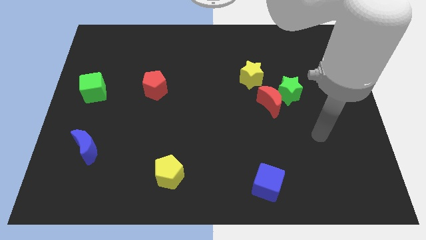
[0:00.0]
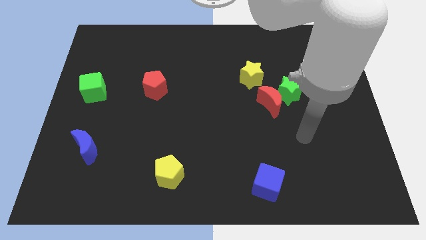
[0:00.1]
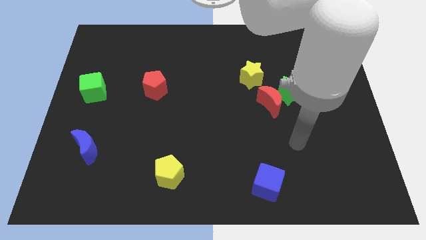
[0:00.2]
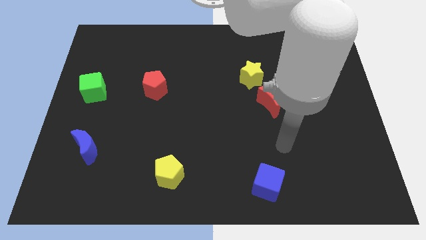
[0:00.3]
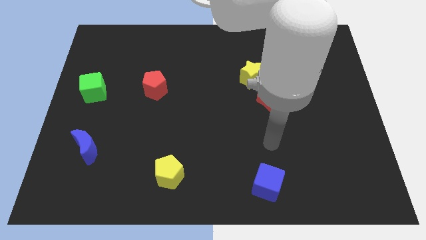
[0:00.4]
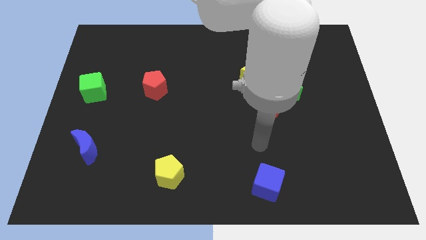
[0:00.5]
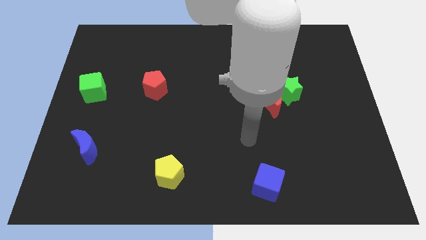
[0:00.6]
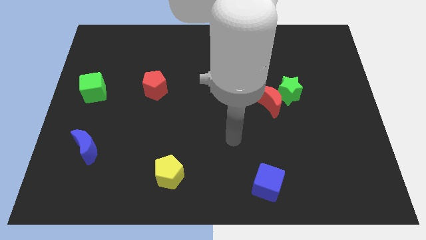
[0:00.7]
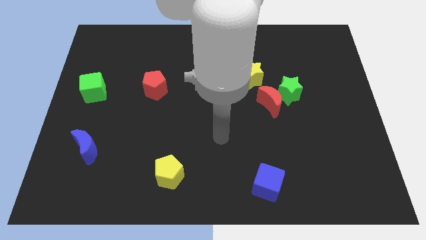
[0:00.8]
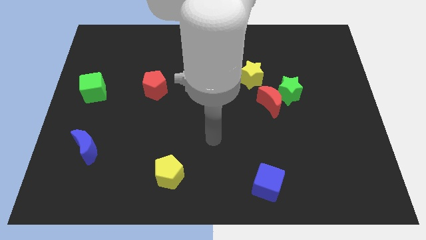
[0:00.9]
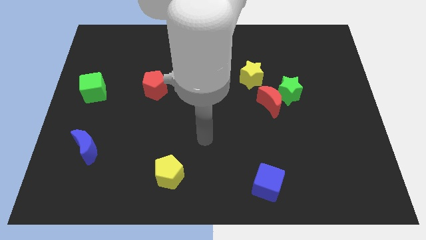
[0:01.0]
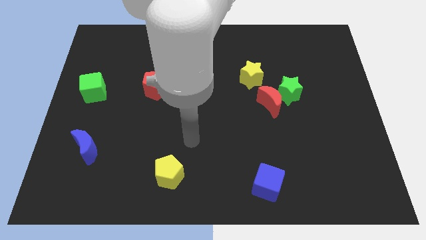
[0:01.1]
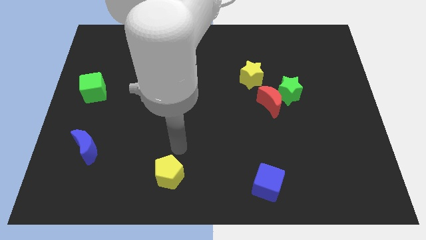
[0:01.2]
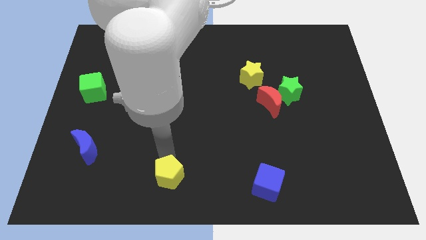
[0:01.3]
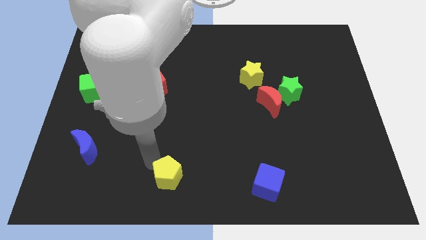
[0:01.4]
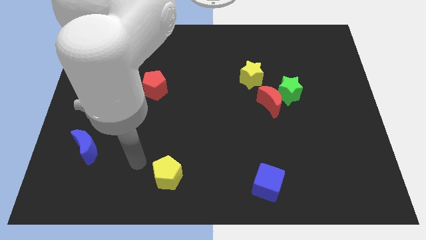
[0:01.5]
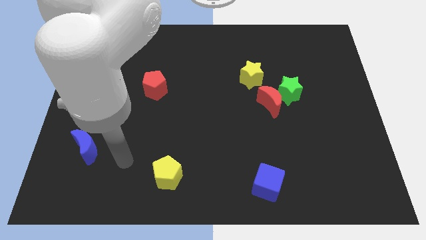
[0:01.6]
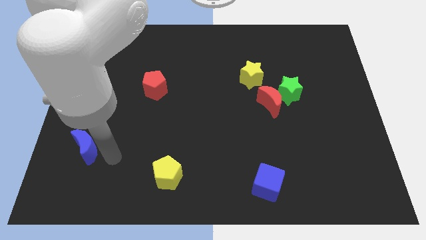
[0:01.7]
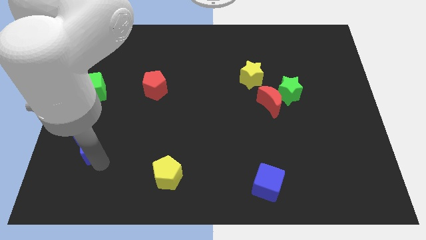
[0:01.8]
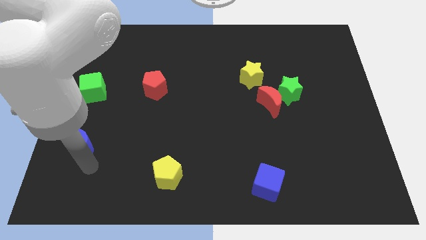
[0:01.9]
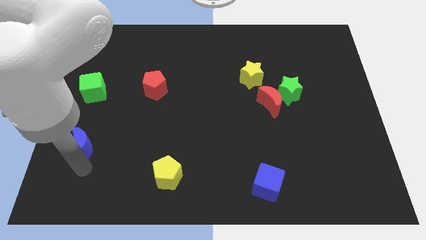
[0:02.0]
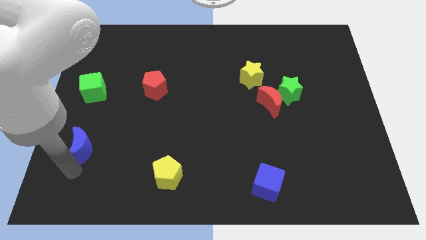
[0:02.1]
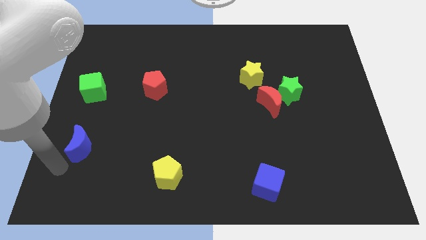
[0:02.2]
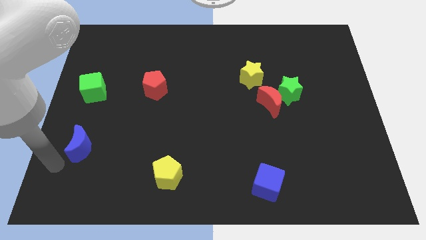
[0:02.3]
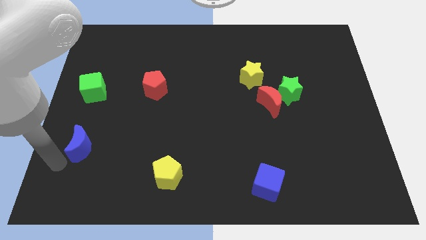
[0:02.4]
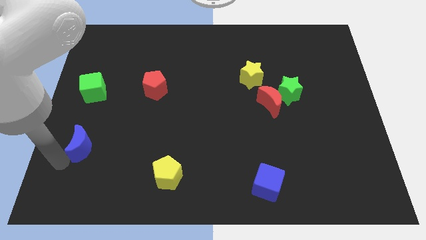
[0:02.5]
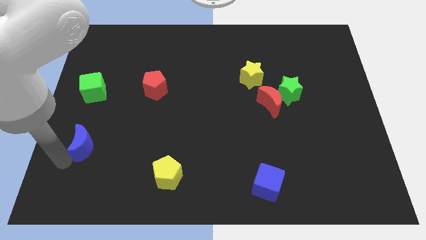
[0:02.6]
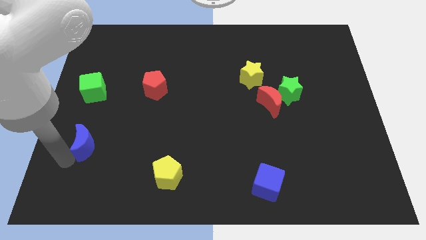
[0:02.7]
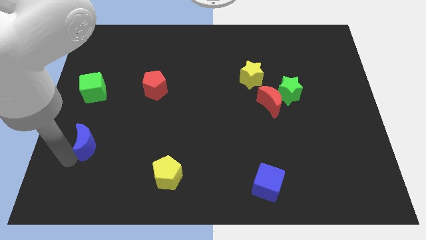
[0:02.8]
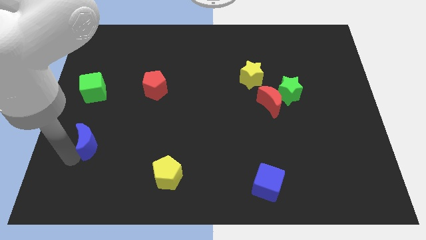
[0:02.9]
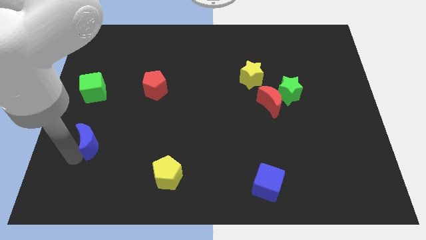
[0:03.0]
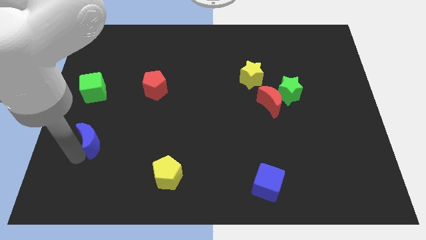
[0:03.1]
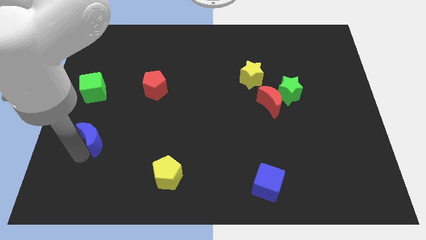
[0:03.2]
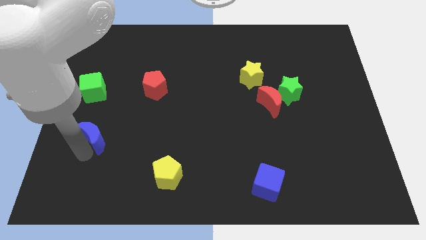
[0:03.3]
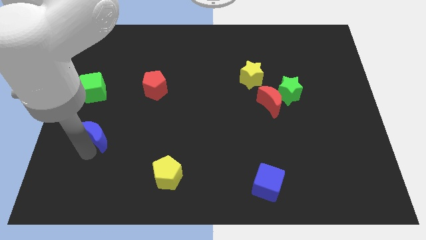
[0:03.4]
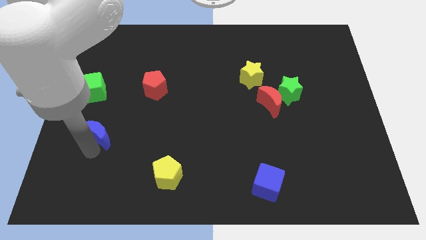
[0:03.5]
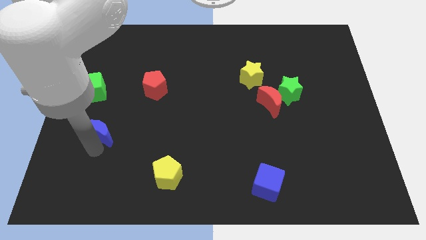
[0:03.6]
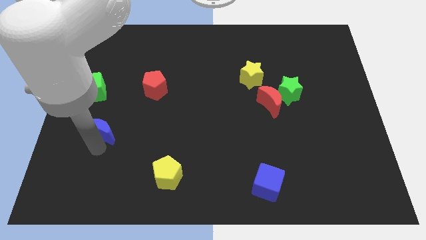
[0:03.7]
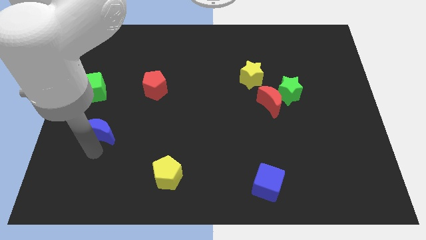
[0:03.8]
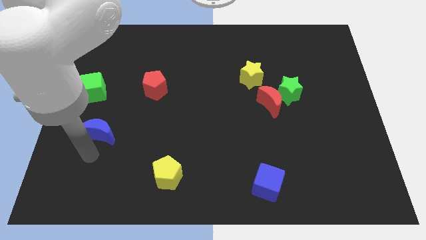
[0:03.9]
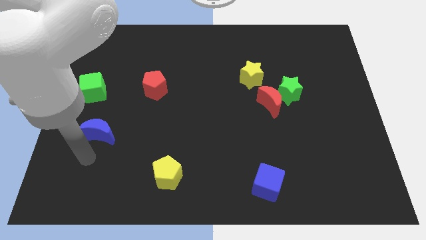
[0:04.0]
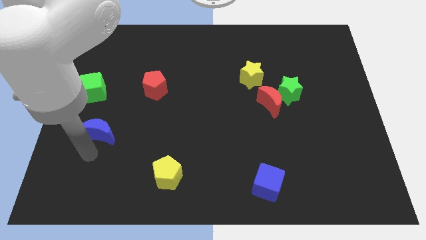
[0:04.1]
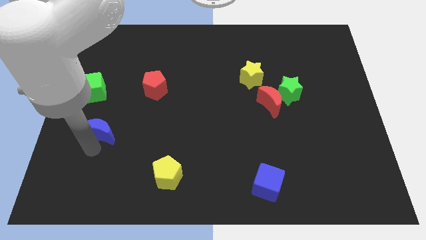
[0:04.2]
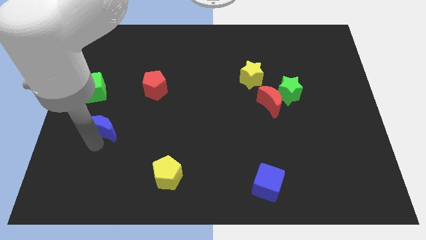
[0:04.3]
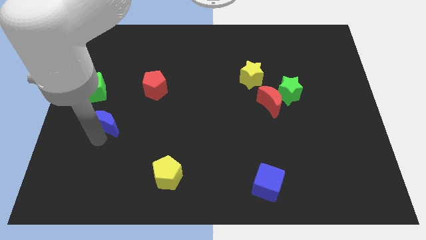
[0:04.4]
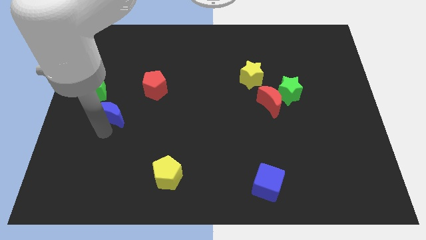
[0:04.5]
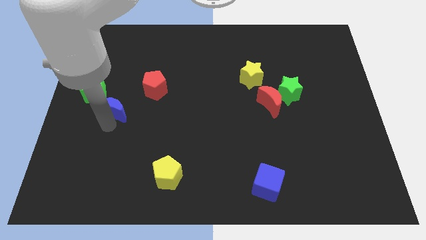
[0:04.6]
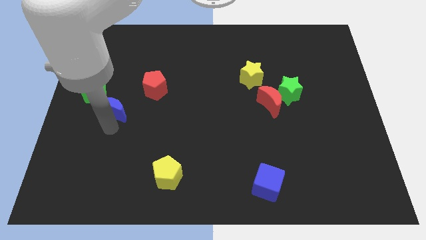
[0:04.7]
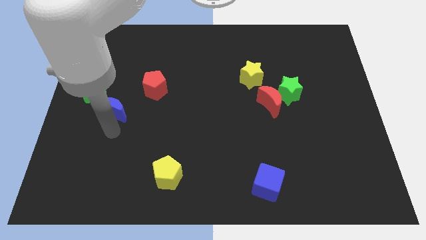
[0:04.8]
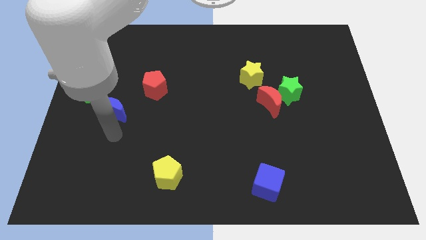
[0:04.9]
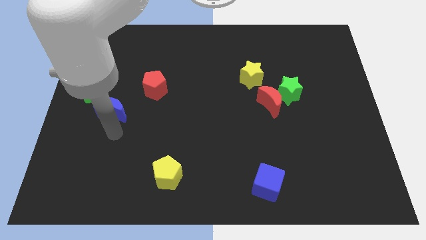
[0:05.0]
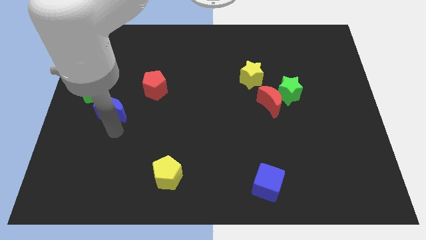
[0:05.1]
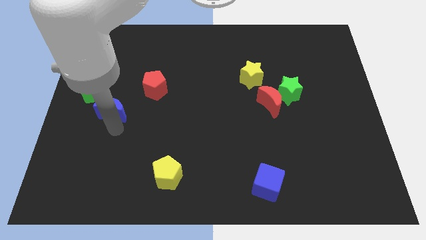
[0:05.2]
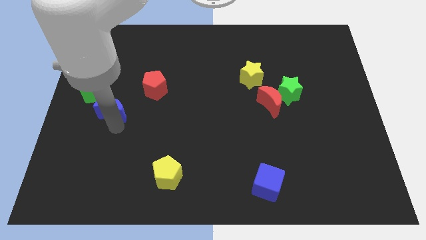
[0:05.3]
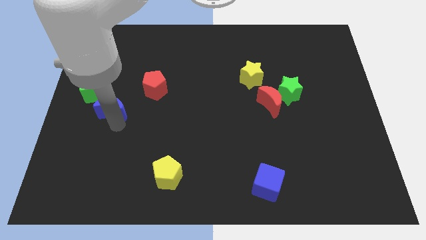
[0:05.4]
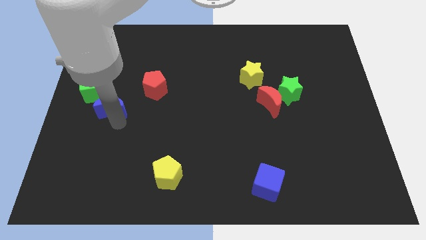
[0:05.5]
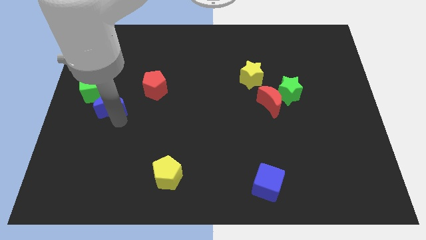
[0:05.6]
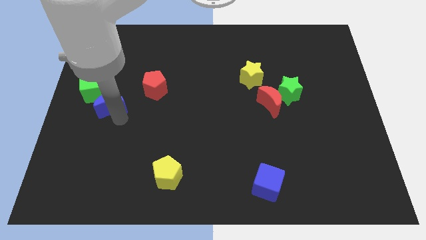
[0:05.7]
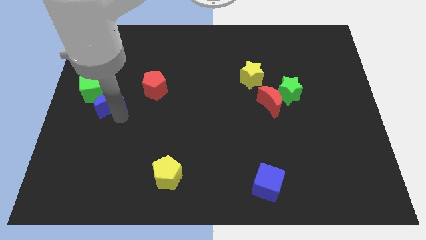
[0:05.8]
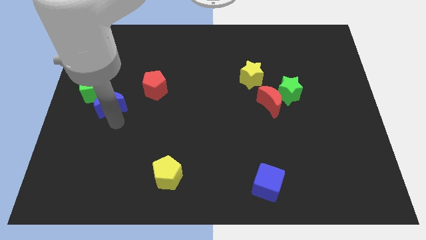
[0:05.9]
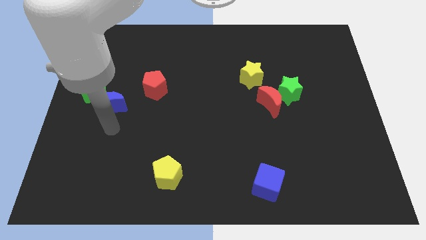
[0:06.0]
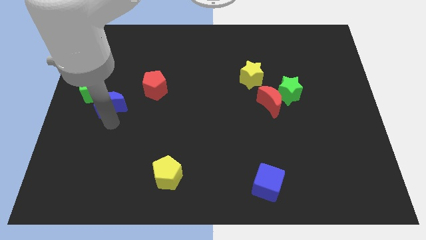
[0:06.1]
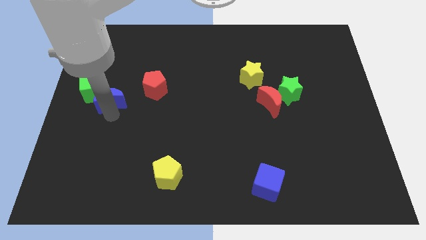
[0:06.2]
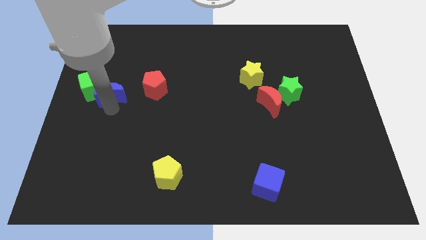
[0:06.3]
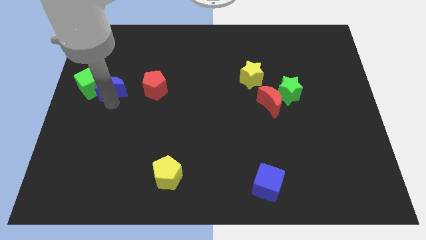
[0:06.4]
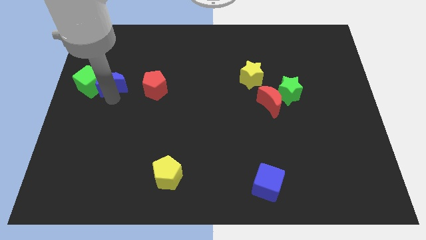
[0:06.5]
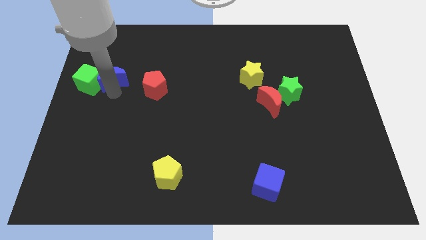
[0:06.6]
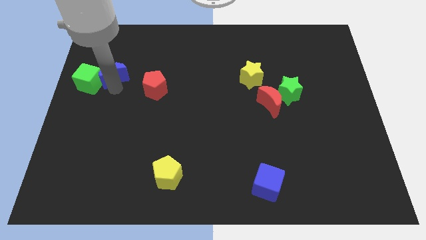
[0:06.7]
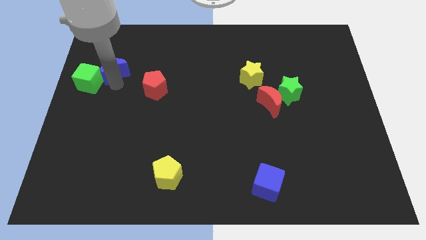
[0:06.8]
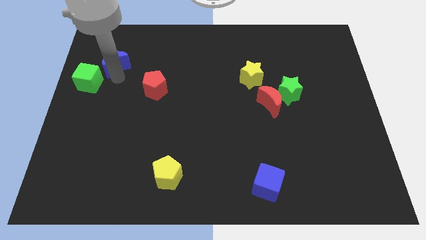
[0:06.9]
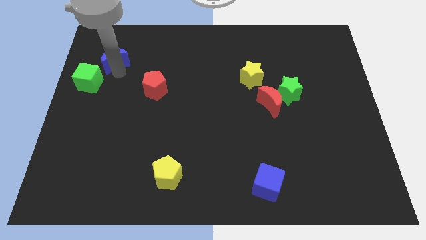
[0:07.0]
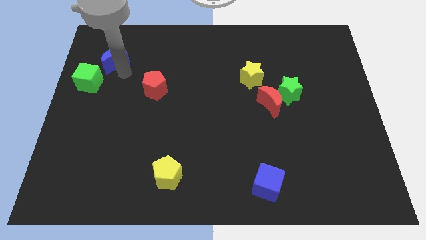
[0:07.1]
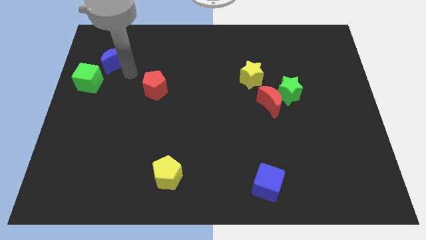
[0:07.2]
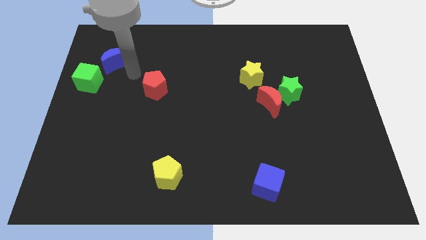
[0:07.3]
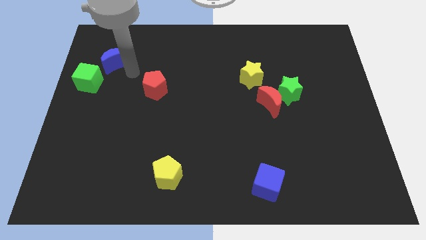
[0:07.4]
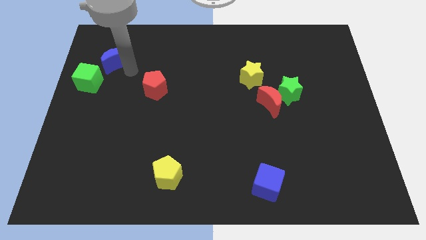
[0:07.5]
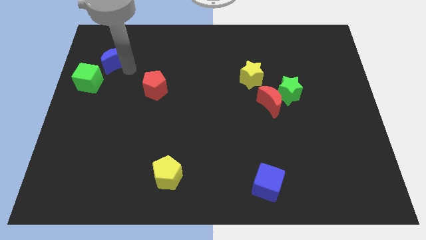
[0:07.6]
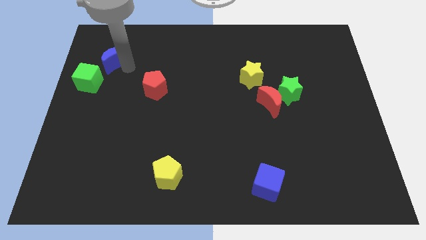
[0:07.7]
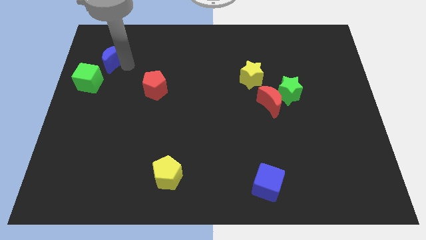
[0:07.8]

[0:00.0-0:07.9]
put the blue moon to the top side of the green cube
